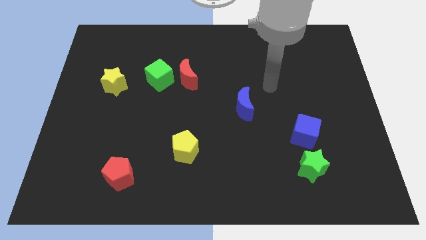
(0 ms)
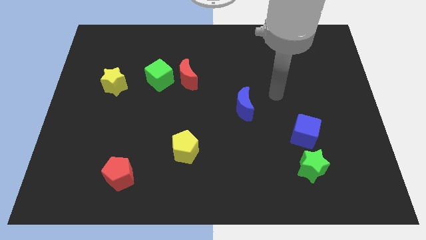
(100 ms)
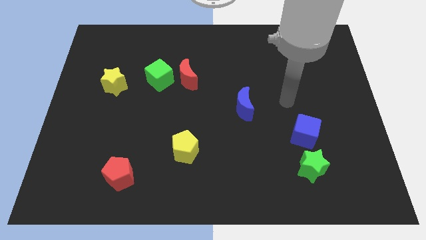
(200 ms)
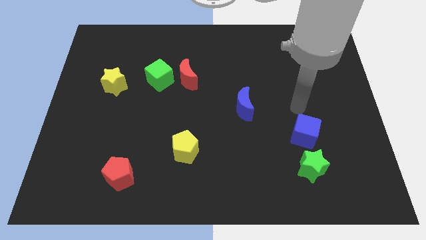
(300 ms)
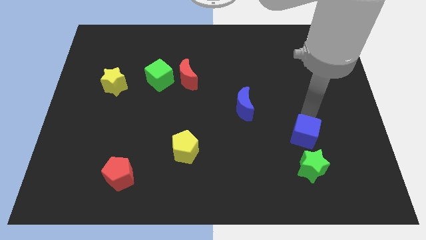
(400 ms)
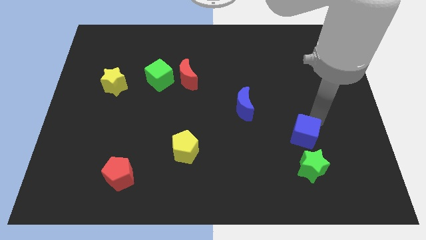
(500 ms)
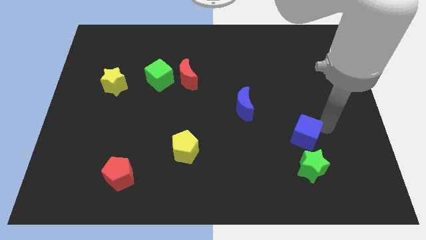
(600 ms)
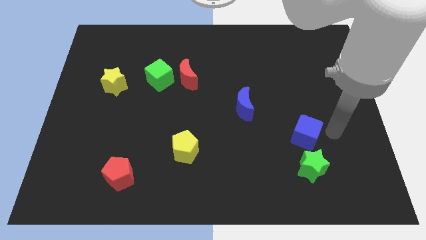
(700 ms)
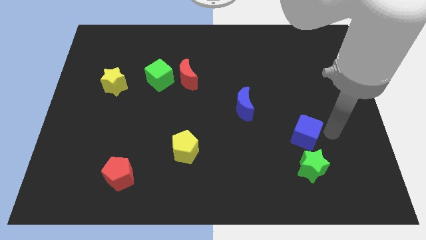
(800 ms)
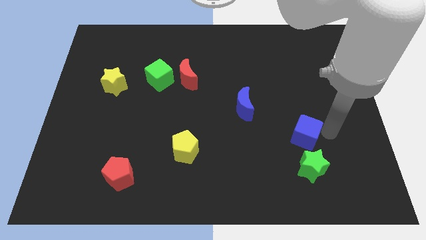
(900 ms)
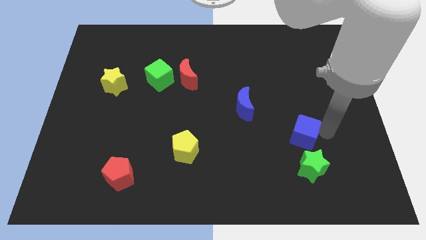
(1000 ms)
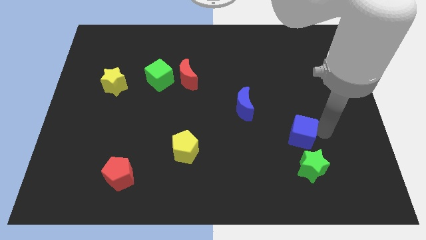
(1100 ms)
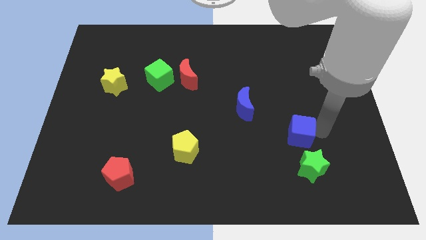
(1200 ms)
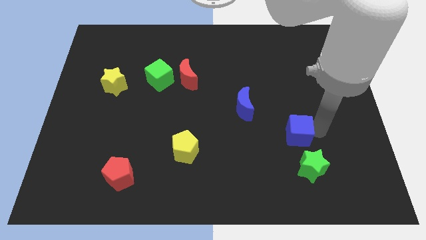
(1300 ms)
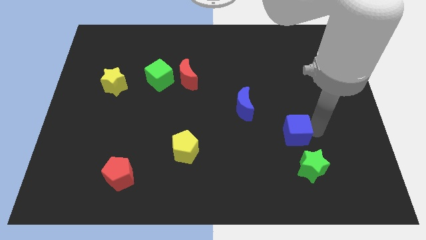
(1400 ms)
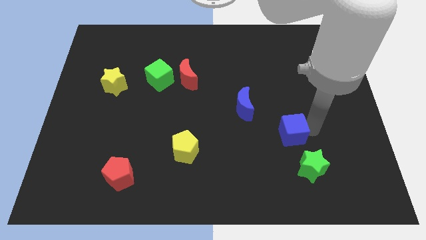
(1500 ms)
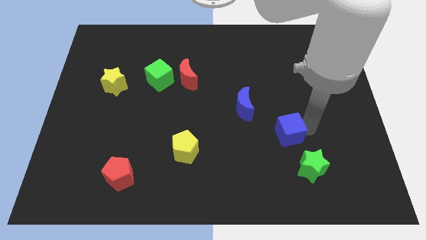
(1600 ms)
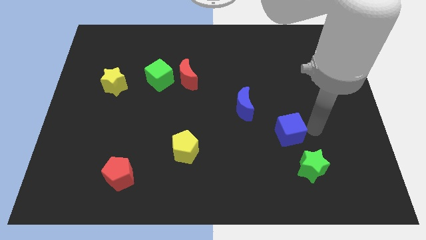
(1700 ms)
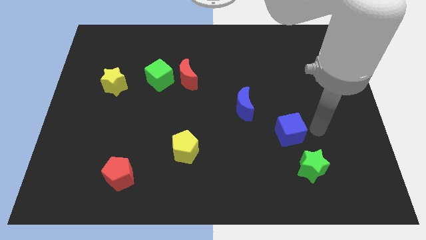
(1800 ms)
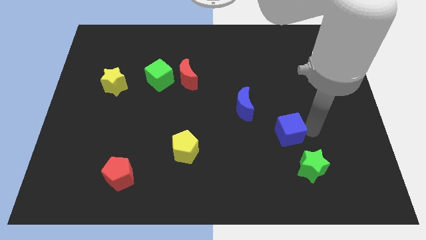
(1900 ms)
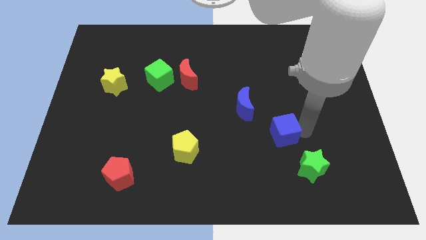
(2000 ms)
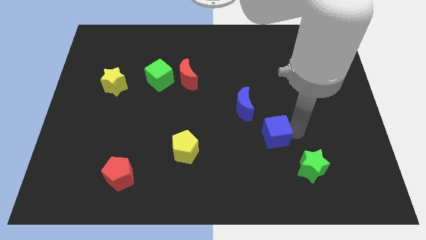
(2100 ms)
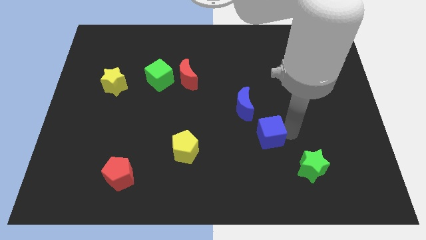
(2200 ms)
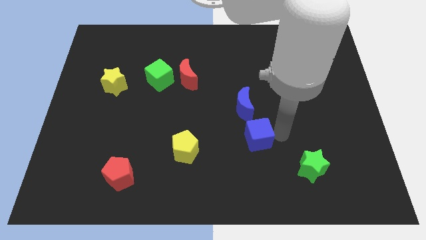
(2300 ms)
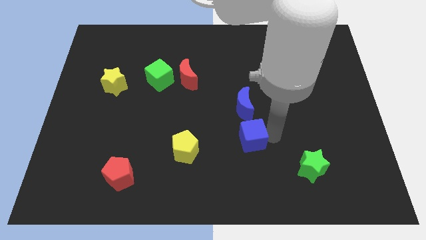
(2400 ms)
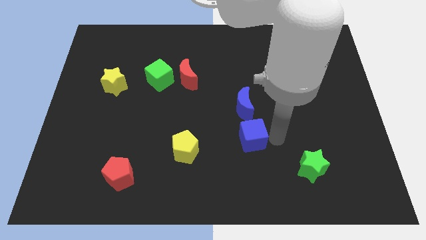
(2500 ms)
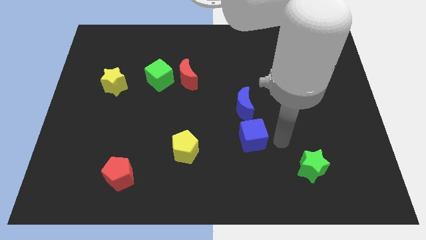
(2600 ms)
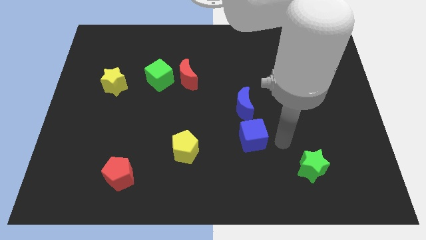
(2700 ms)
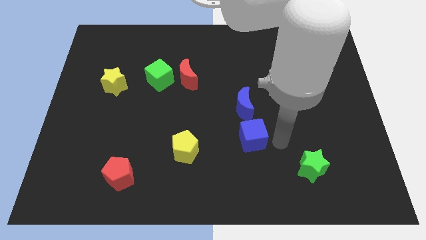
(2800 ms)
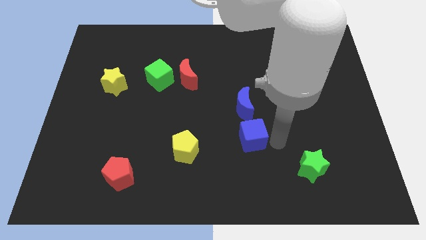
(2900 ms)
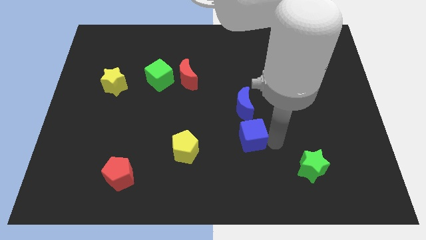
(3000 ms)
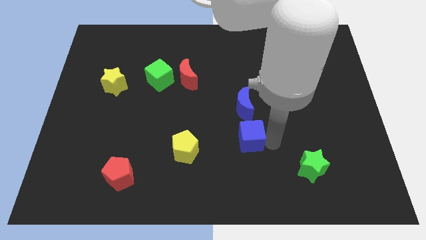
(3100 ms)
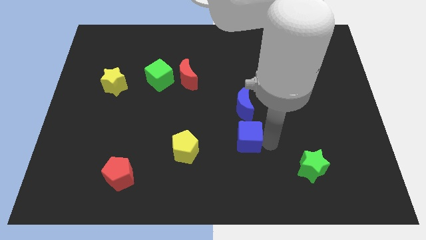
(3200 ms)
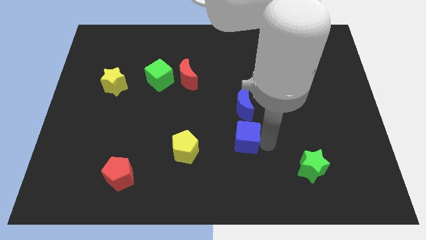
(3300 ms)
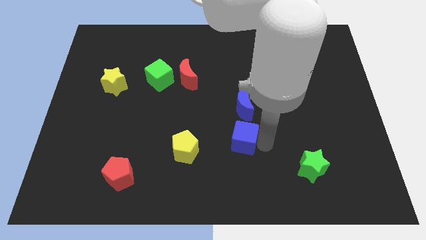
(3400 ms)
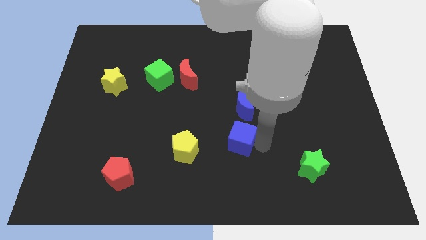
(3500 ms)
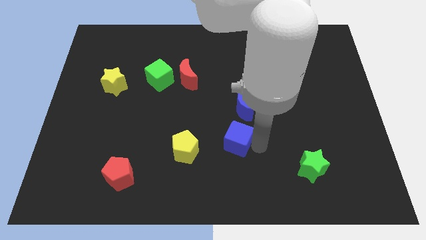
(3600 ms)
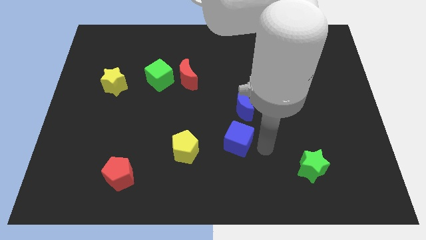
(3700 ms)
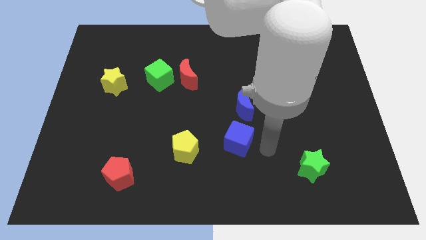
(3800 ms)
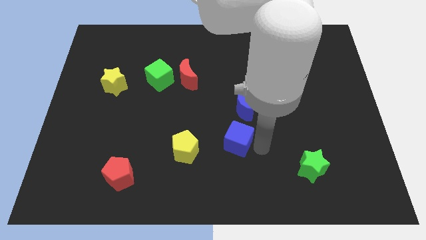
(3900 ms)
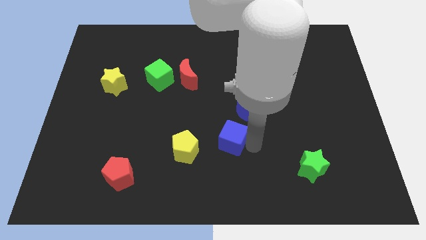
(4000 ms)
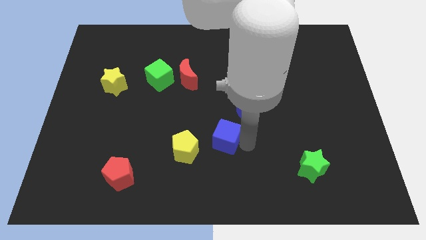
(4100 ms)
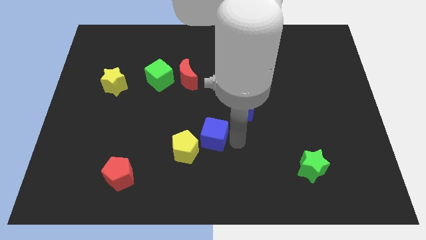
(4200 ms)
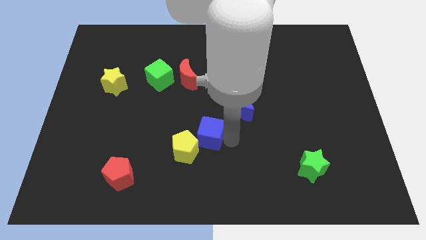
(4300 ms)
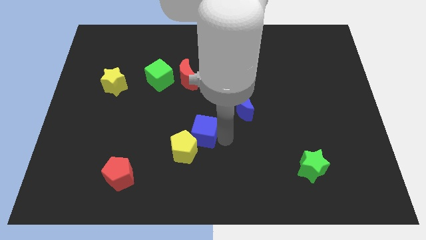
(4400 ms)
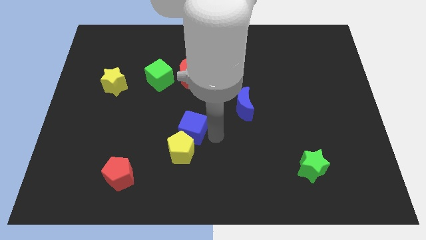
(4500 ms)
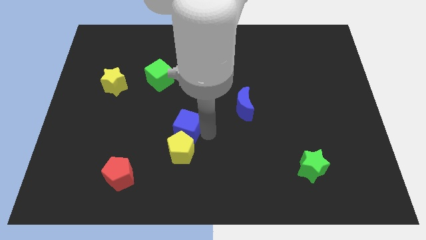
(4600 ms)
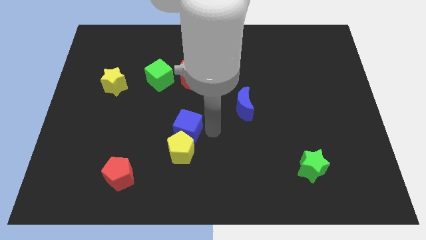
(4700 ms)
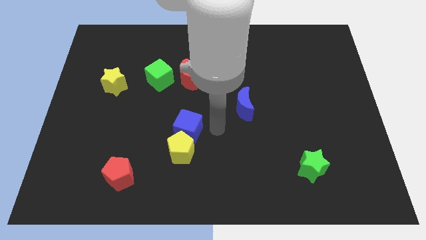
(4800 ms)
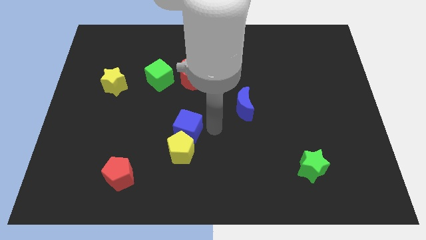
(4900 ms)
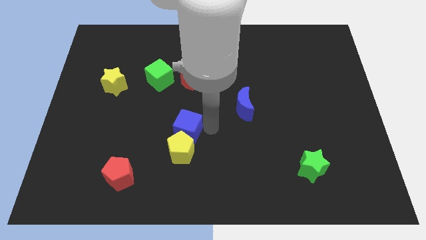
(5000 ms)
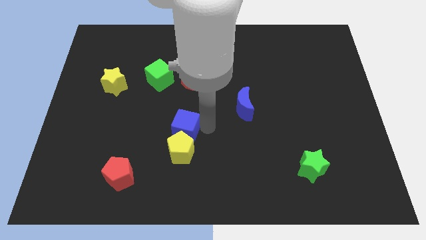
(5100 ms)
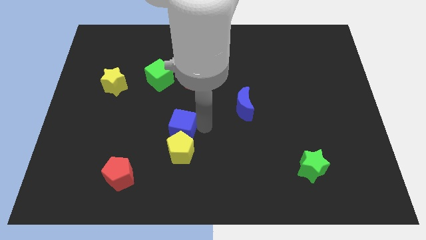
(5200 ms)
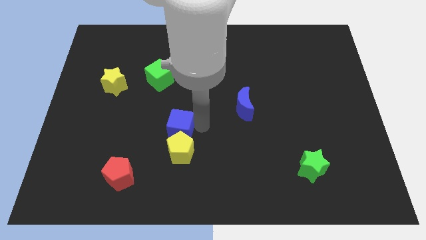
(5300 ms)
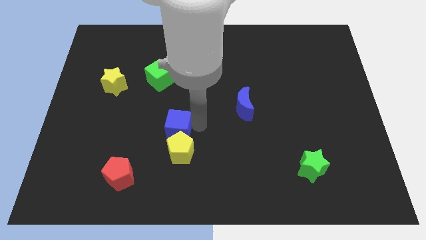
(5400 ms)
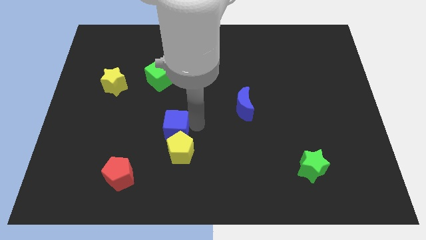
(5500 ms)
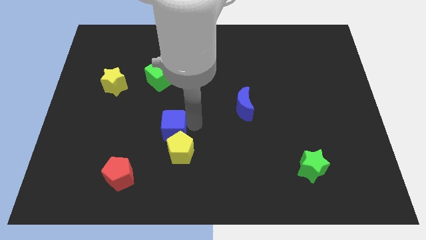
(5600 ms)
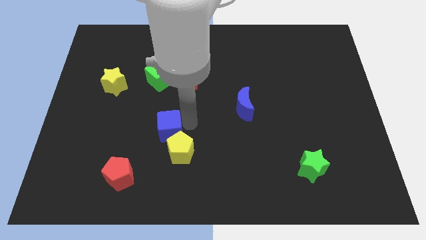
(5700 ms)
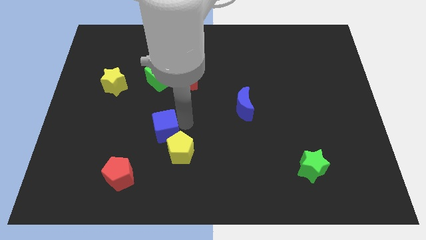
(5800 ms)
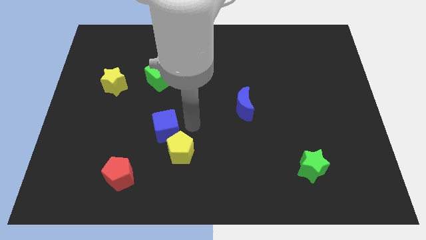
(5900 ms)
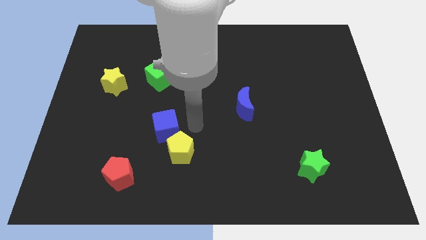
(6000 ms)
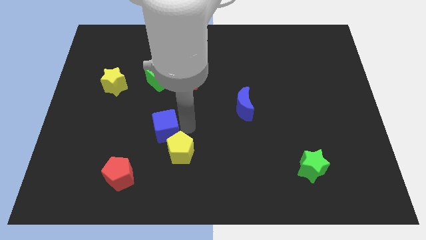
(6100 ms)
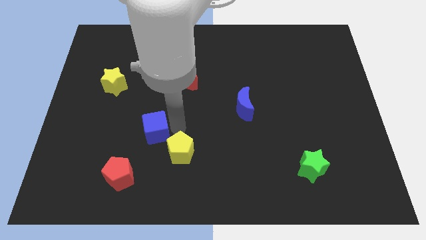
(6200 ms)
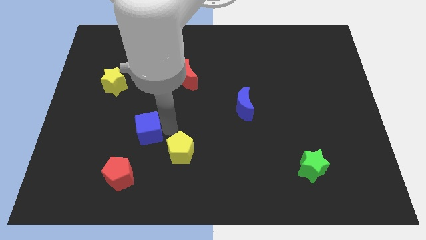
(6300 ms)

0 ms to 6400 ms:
push the blue cube to the top side of the red pentagon
